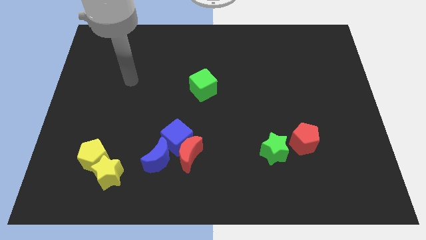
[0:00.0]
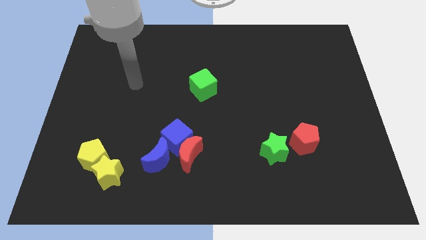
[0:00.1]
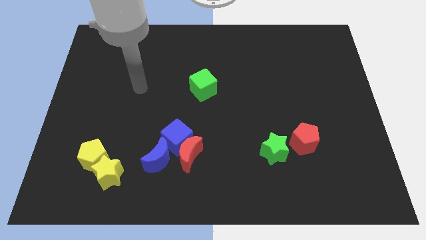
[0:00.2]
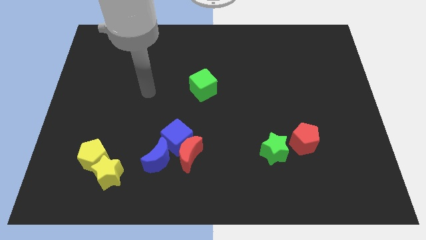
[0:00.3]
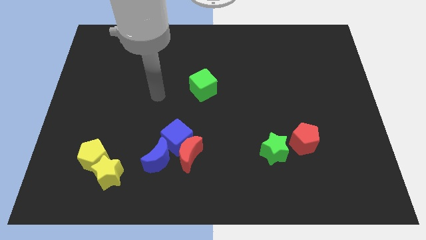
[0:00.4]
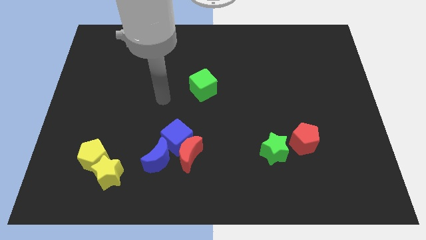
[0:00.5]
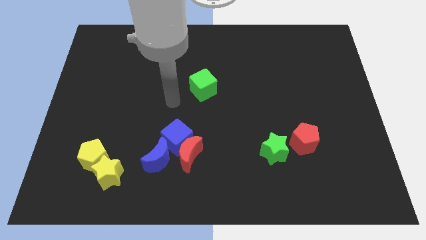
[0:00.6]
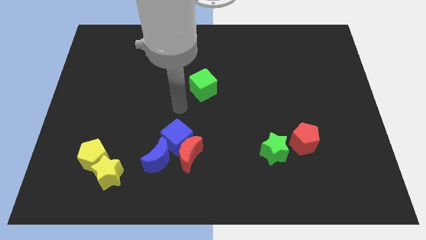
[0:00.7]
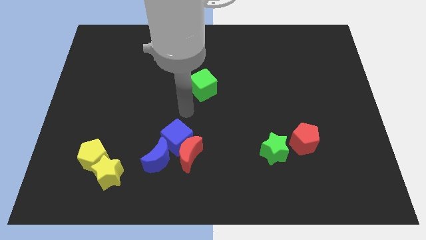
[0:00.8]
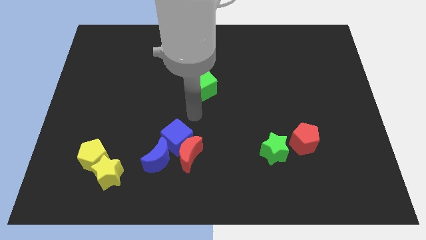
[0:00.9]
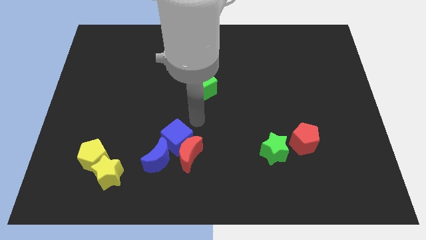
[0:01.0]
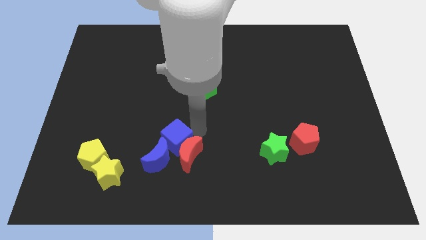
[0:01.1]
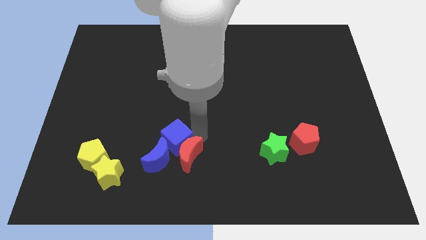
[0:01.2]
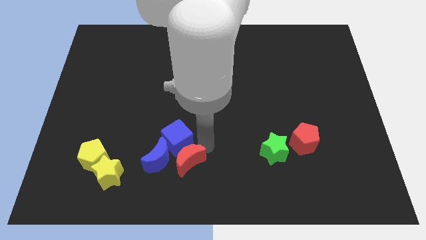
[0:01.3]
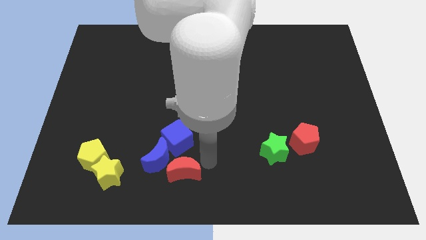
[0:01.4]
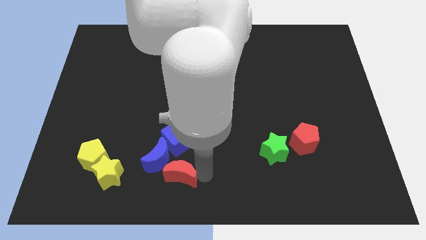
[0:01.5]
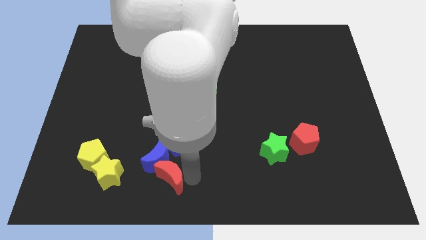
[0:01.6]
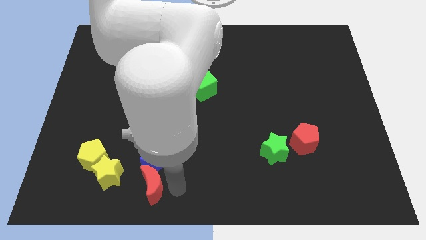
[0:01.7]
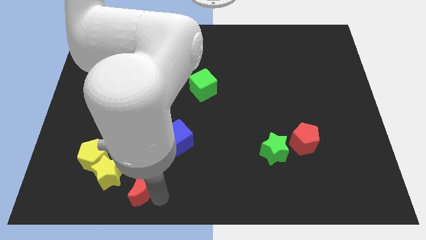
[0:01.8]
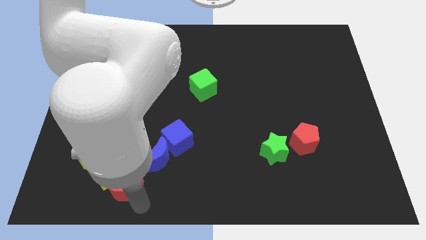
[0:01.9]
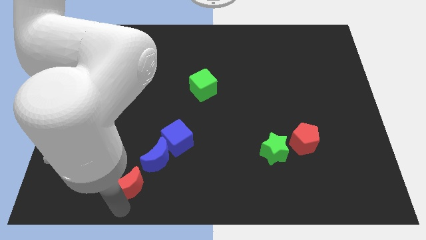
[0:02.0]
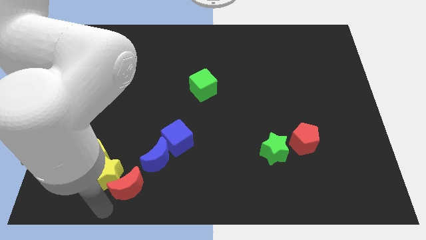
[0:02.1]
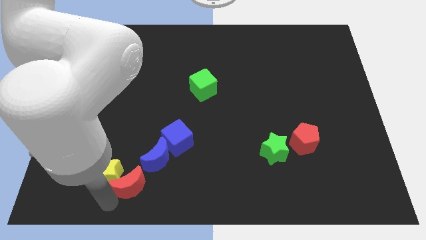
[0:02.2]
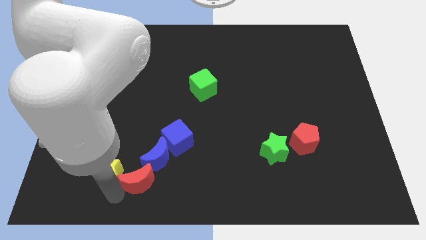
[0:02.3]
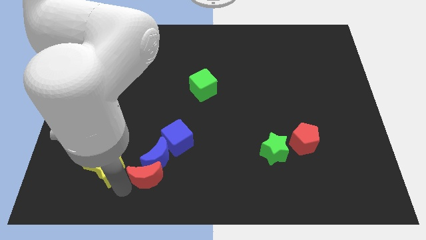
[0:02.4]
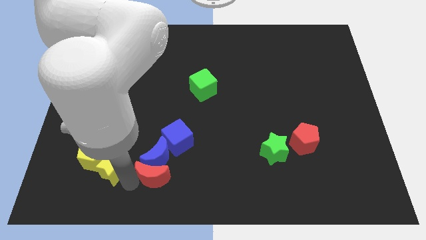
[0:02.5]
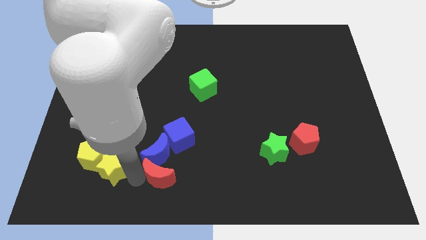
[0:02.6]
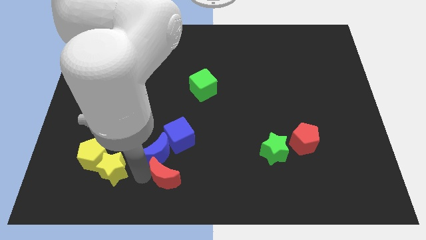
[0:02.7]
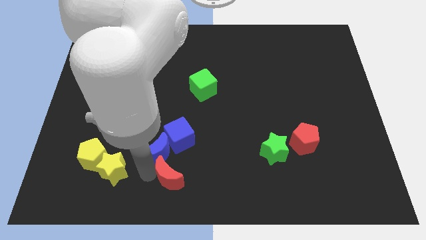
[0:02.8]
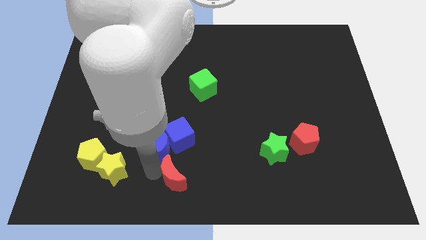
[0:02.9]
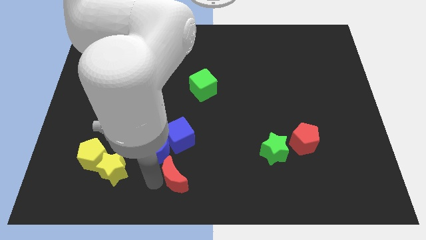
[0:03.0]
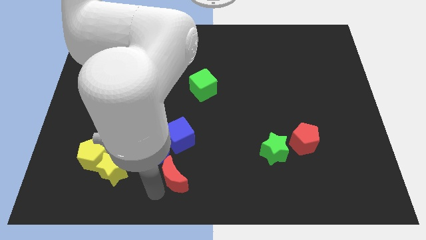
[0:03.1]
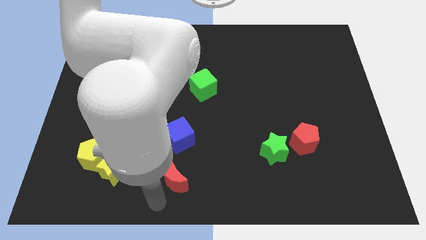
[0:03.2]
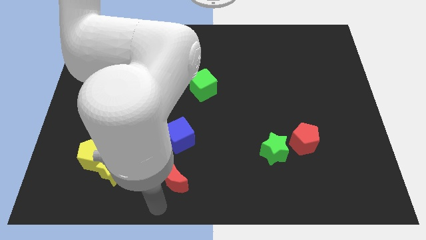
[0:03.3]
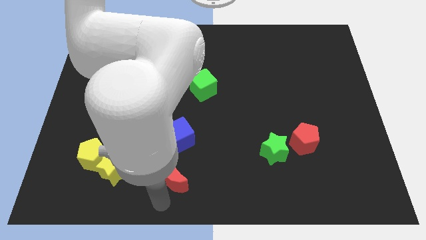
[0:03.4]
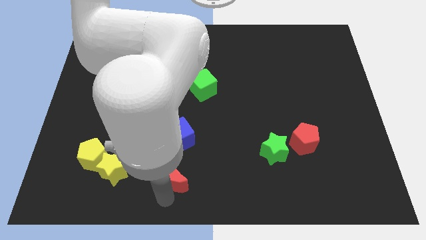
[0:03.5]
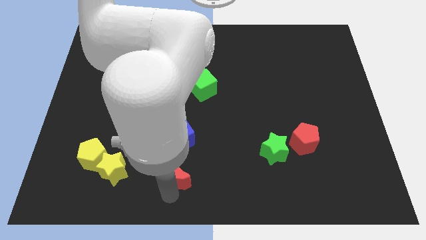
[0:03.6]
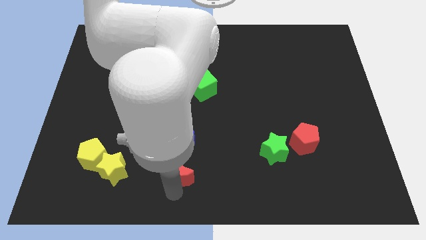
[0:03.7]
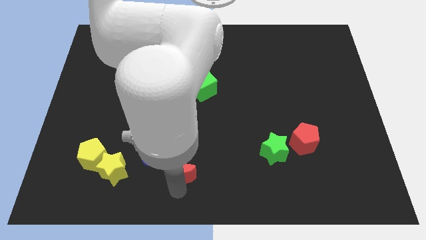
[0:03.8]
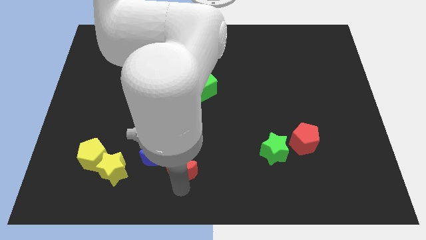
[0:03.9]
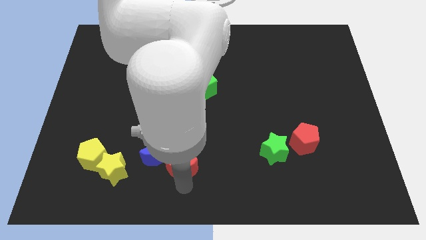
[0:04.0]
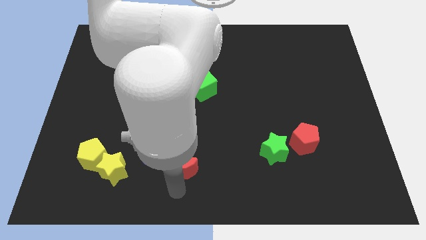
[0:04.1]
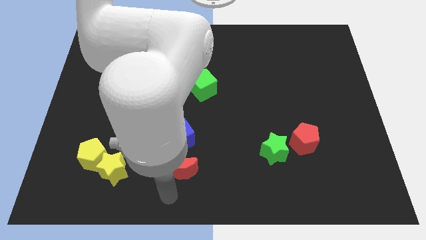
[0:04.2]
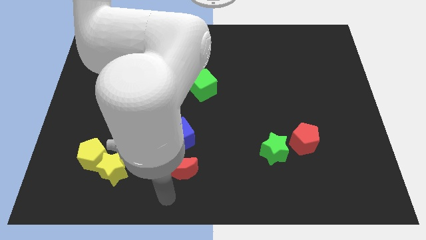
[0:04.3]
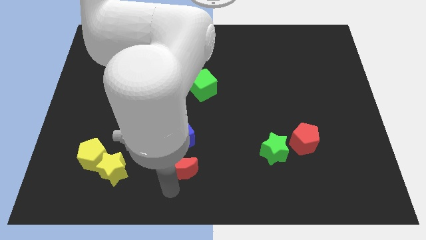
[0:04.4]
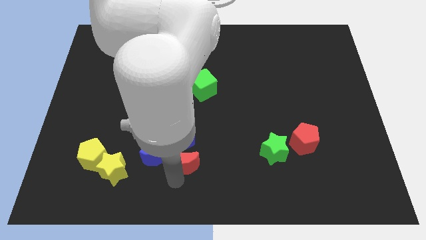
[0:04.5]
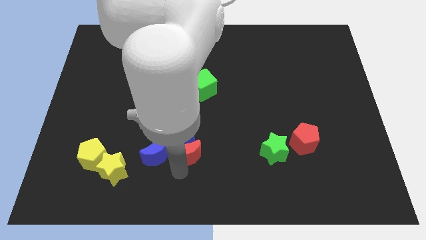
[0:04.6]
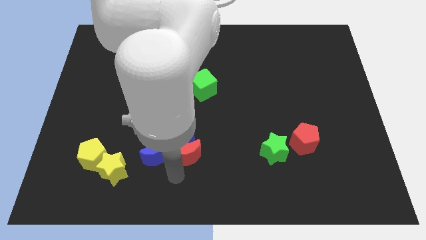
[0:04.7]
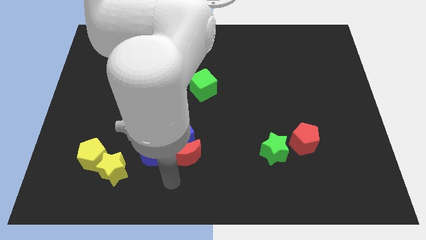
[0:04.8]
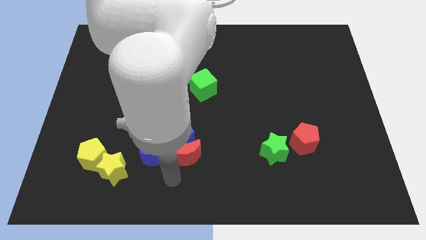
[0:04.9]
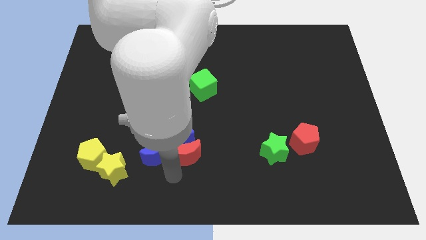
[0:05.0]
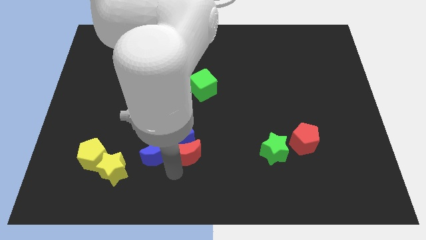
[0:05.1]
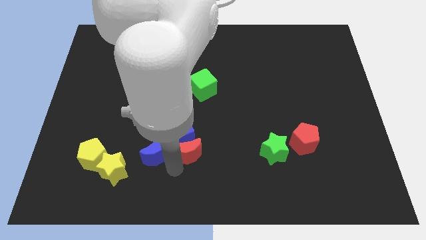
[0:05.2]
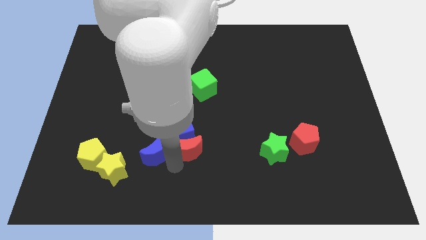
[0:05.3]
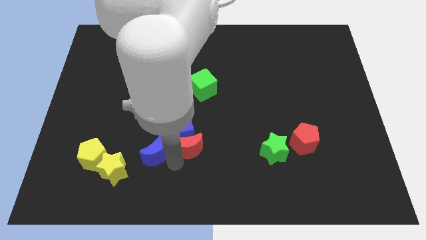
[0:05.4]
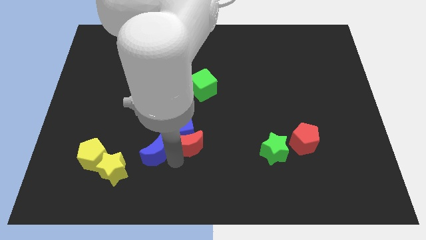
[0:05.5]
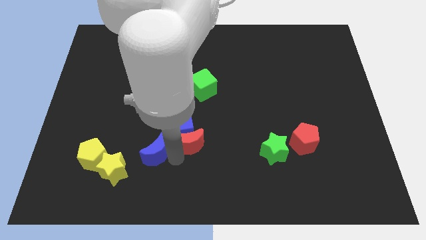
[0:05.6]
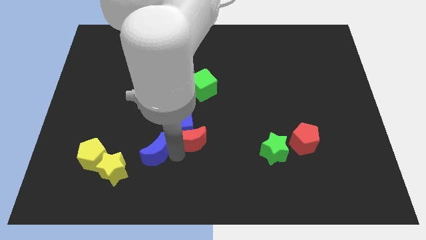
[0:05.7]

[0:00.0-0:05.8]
slide the red moon to the center
